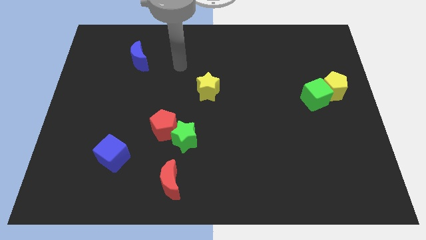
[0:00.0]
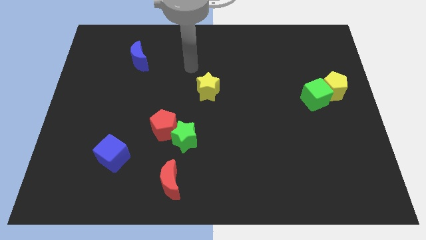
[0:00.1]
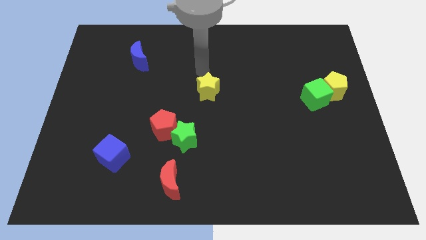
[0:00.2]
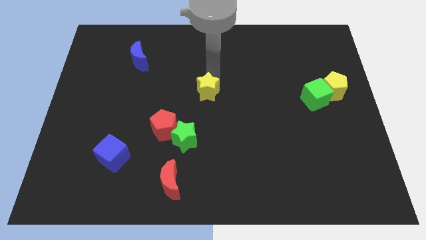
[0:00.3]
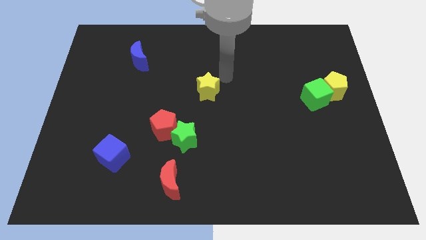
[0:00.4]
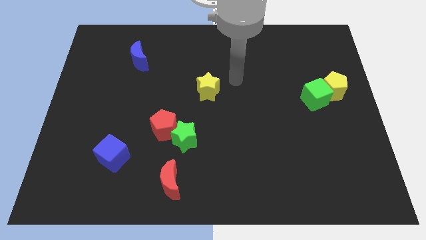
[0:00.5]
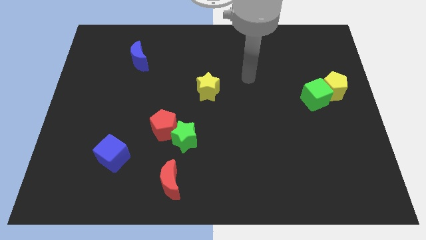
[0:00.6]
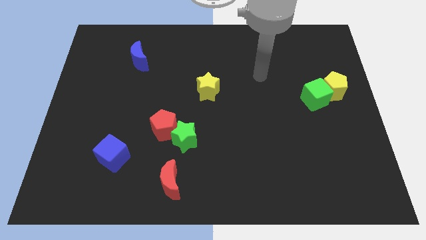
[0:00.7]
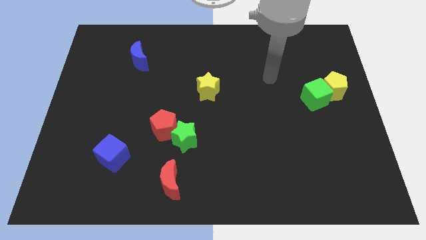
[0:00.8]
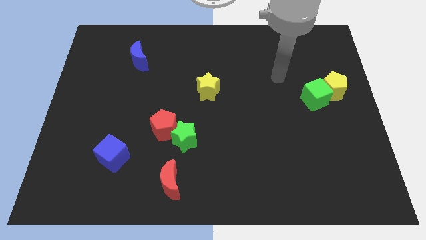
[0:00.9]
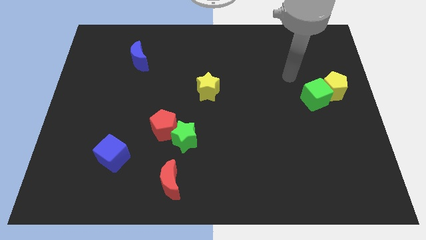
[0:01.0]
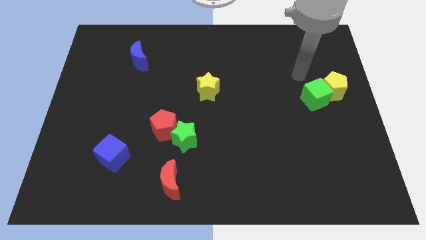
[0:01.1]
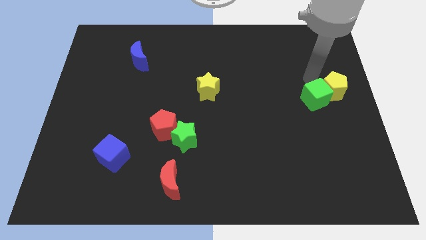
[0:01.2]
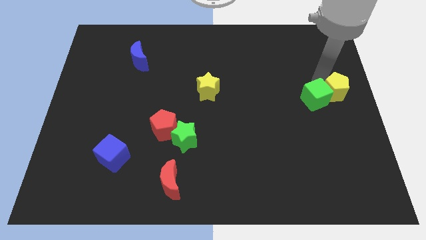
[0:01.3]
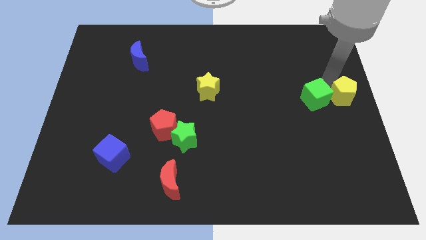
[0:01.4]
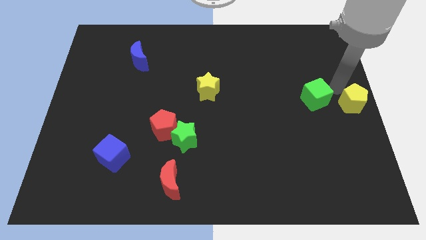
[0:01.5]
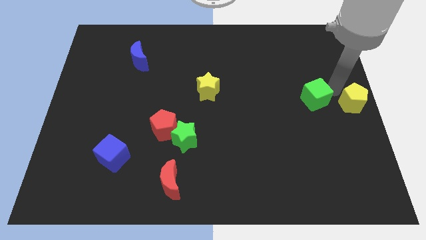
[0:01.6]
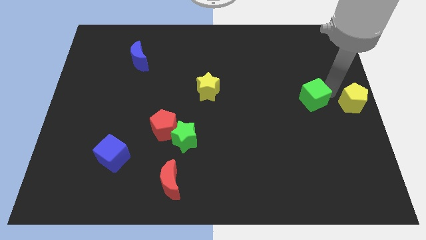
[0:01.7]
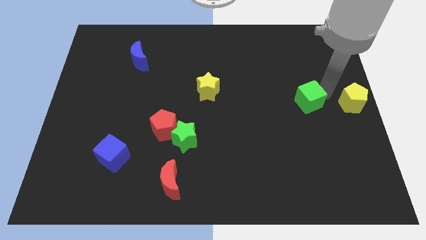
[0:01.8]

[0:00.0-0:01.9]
separate the green cube from the yellow pentagon

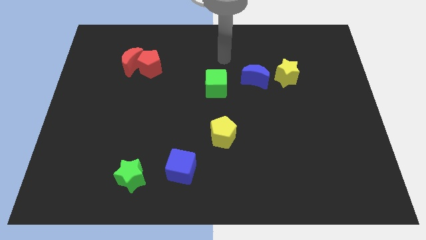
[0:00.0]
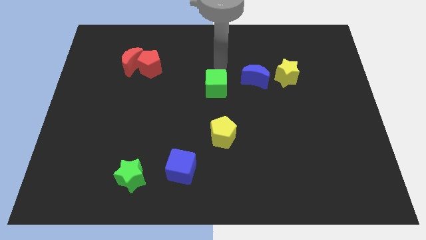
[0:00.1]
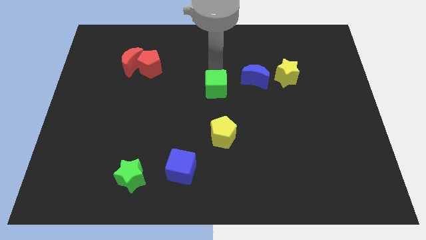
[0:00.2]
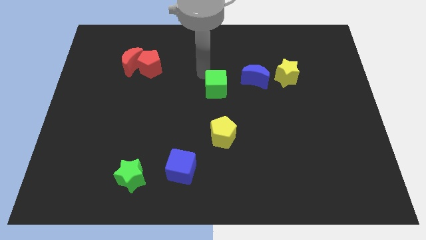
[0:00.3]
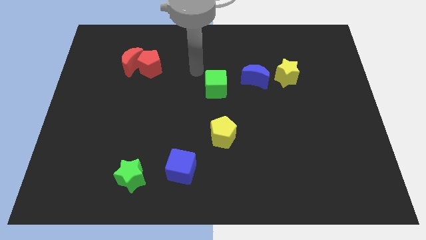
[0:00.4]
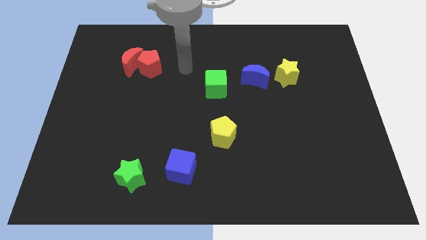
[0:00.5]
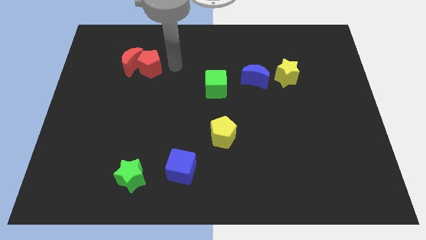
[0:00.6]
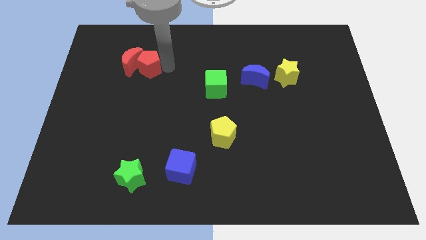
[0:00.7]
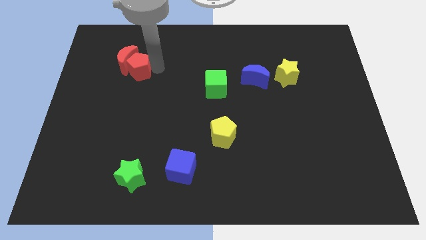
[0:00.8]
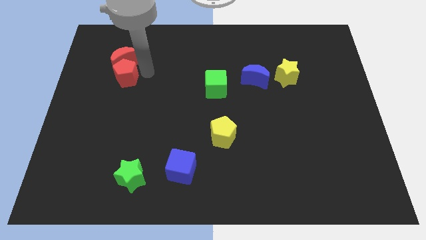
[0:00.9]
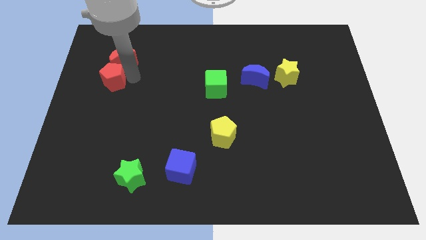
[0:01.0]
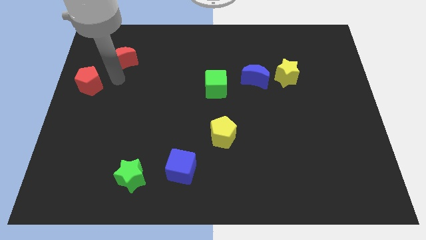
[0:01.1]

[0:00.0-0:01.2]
pull the red moon apart from the red pentagon

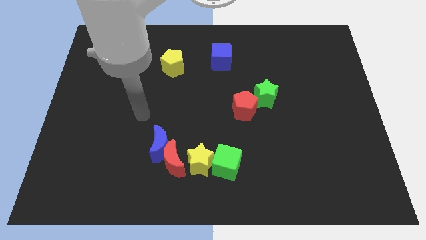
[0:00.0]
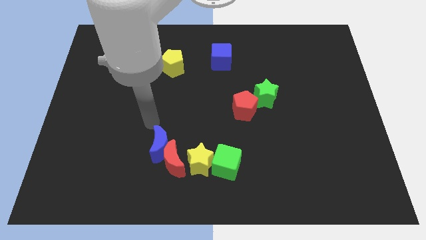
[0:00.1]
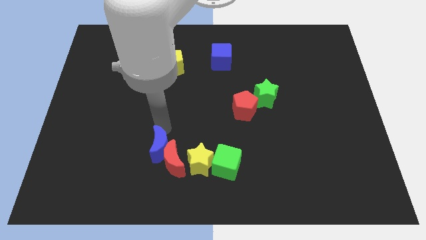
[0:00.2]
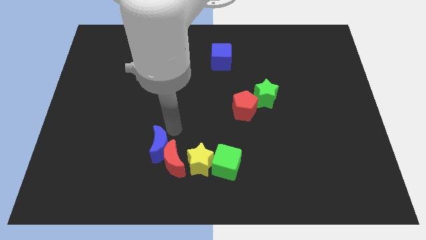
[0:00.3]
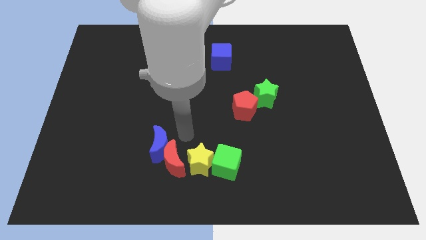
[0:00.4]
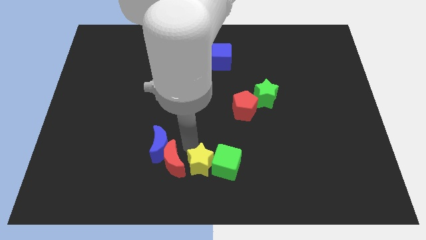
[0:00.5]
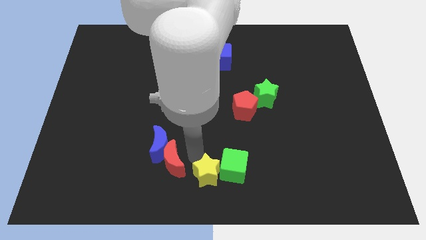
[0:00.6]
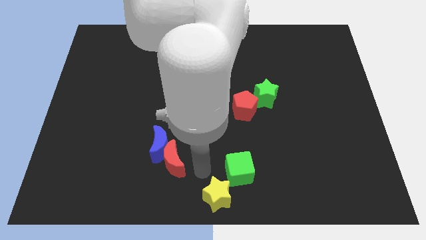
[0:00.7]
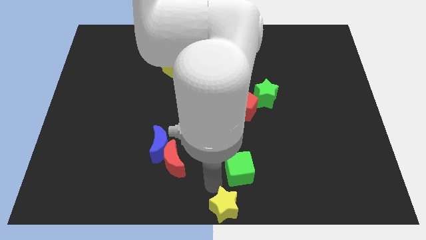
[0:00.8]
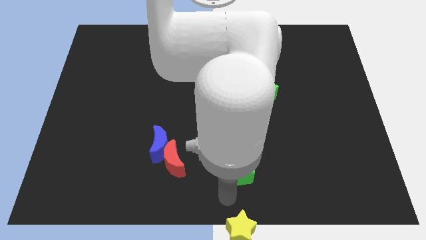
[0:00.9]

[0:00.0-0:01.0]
move the green cube away from the yellow star

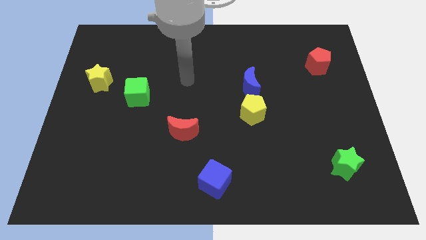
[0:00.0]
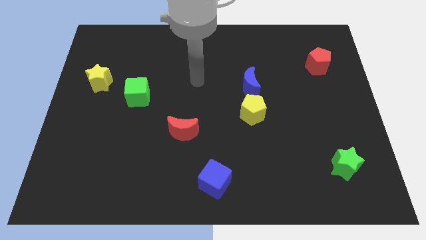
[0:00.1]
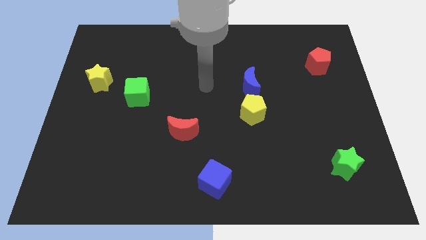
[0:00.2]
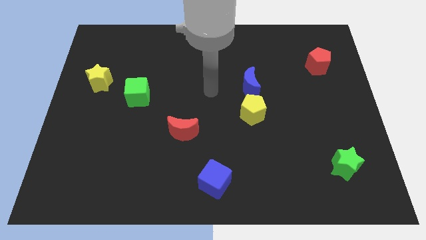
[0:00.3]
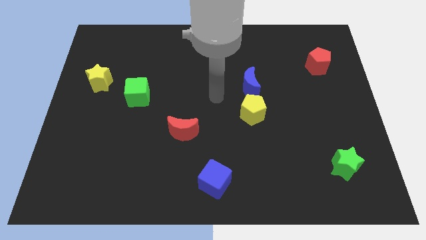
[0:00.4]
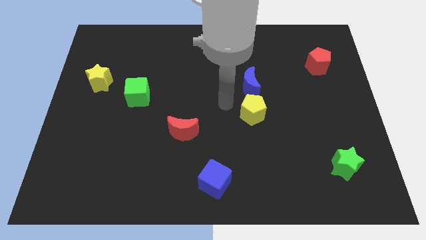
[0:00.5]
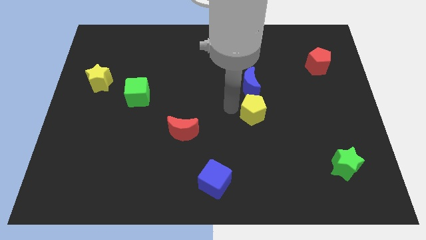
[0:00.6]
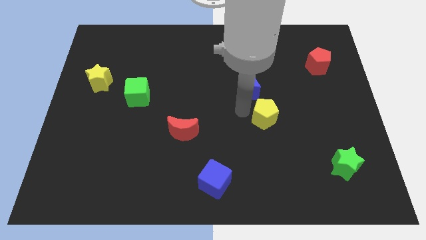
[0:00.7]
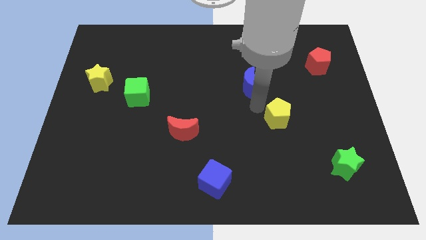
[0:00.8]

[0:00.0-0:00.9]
separate the blue moon from the yellow pentagon

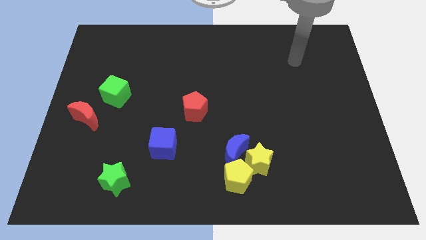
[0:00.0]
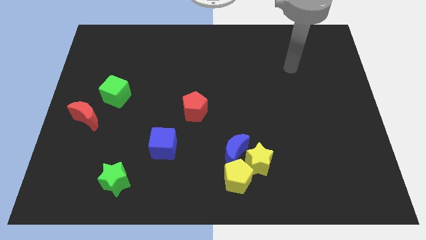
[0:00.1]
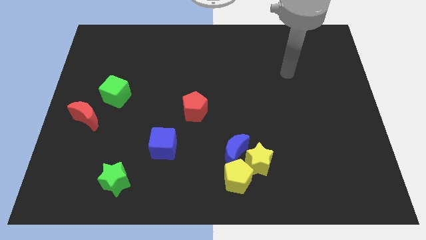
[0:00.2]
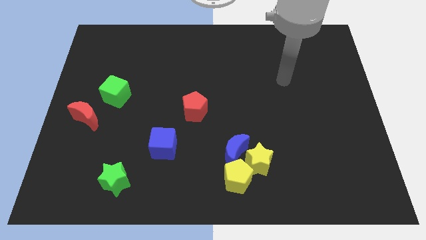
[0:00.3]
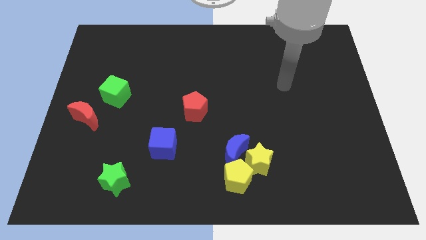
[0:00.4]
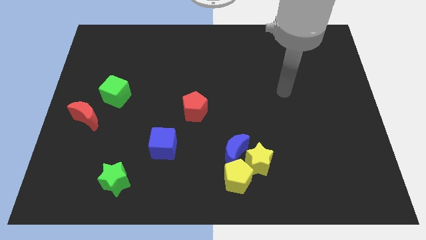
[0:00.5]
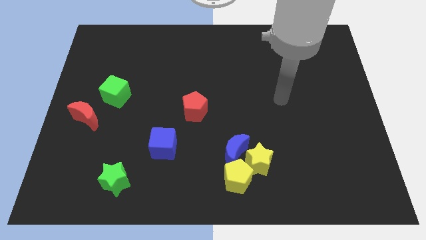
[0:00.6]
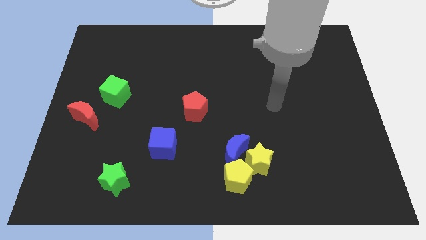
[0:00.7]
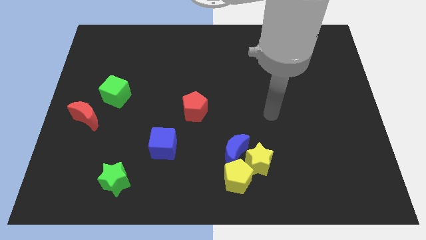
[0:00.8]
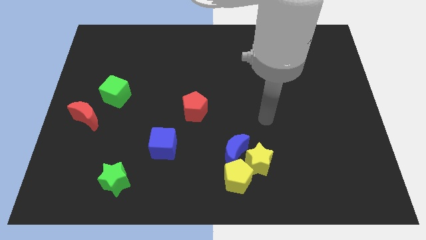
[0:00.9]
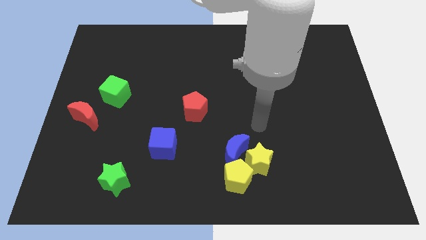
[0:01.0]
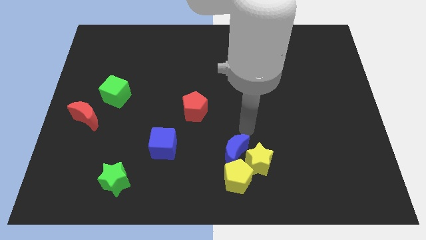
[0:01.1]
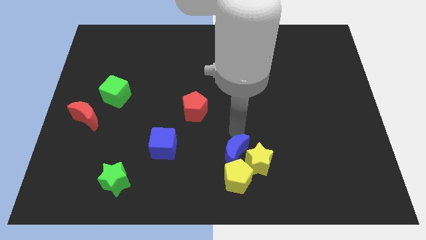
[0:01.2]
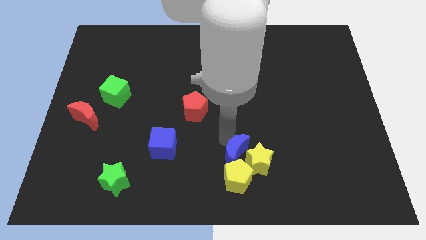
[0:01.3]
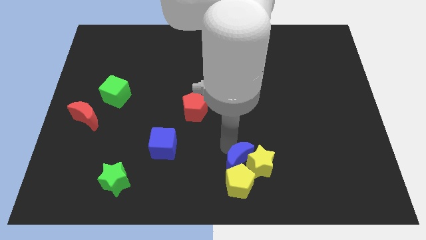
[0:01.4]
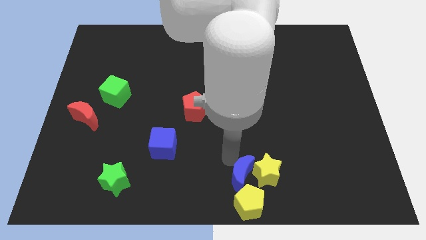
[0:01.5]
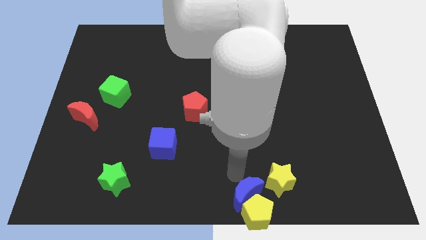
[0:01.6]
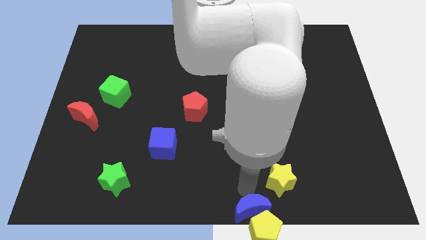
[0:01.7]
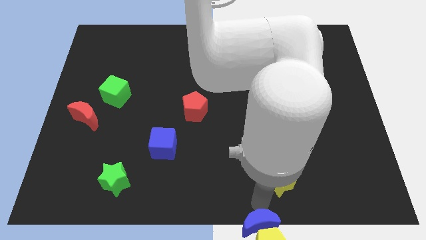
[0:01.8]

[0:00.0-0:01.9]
separate the yellow star from the blue moon and yellow pentagon

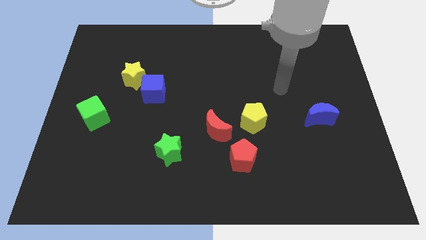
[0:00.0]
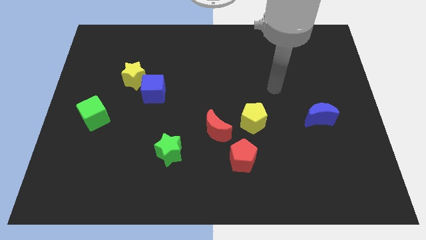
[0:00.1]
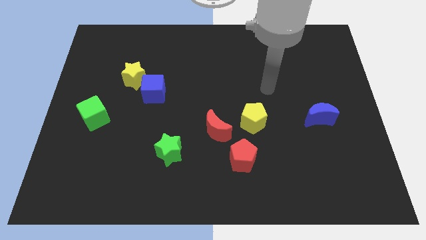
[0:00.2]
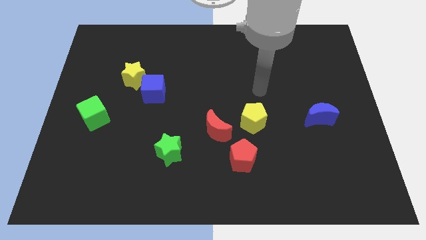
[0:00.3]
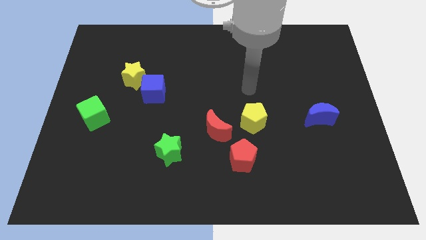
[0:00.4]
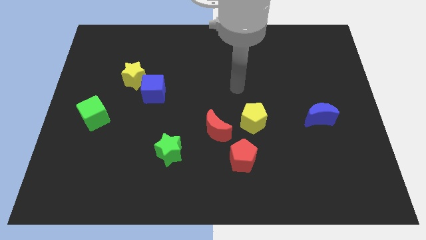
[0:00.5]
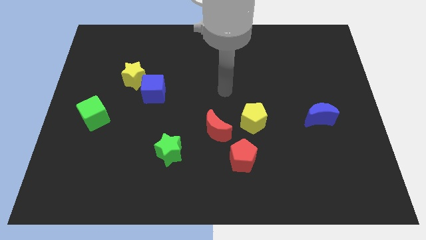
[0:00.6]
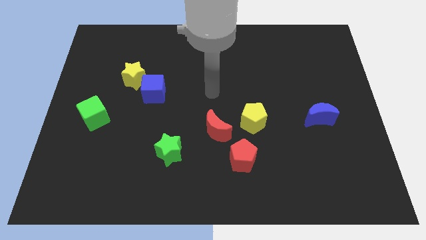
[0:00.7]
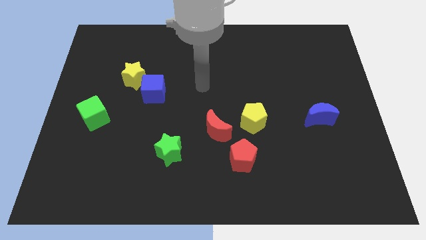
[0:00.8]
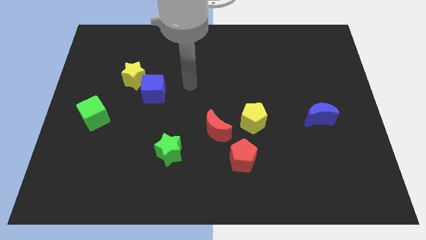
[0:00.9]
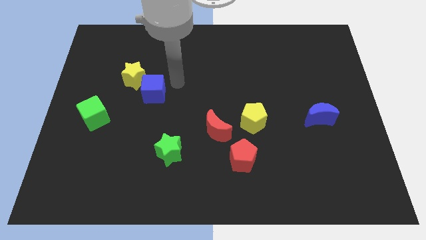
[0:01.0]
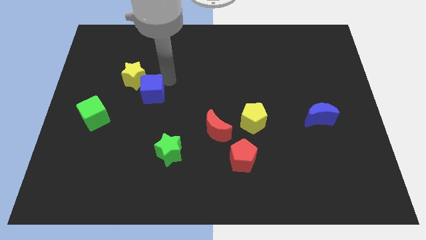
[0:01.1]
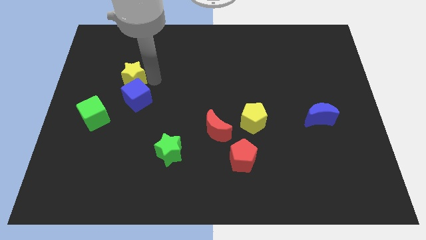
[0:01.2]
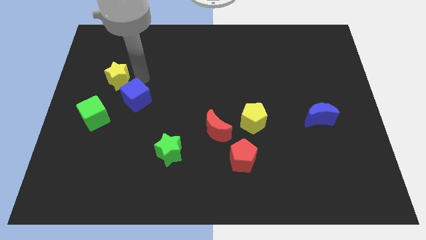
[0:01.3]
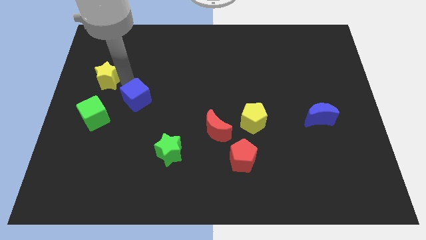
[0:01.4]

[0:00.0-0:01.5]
separate the blue cube from the yellow star

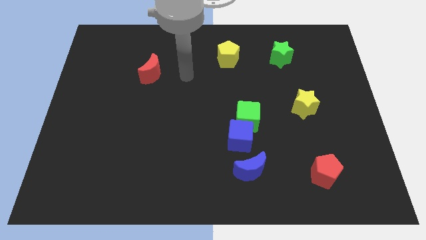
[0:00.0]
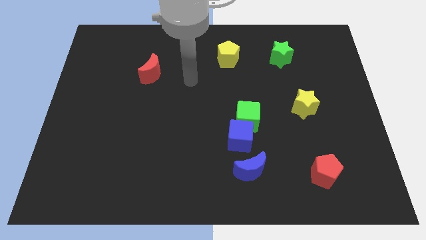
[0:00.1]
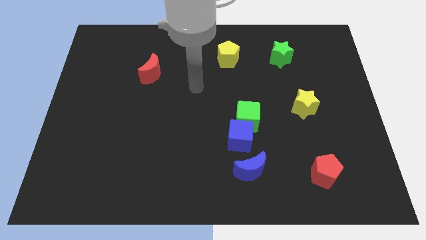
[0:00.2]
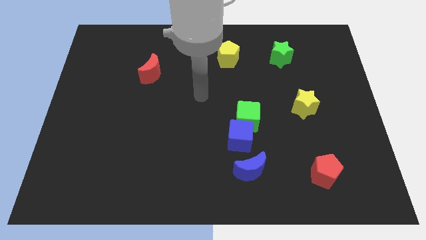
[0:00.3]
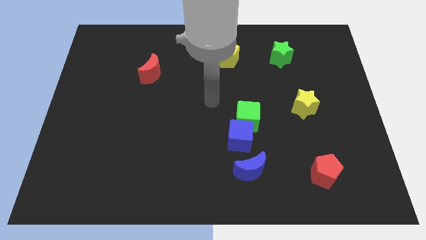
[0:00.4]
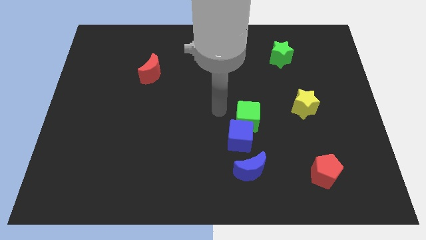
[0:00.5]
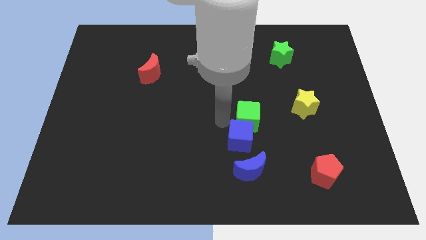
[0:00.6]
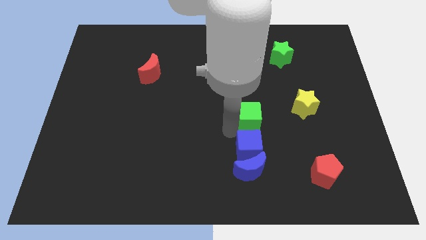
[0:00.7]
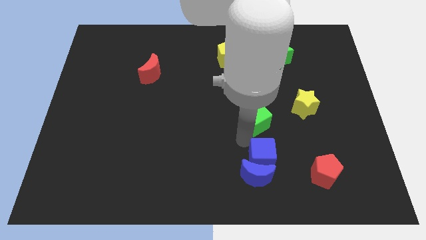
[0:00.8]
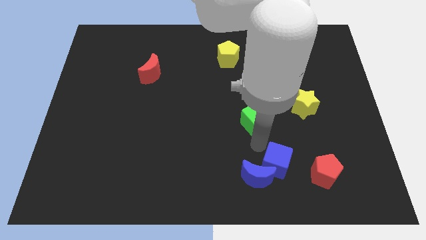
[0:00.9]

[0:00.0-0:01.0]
move the green cube away from the blue cube
